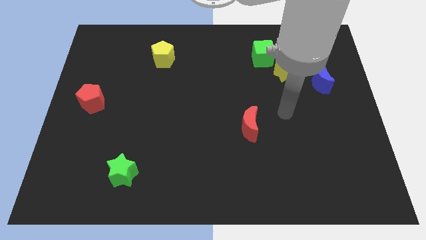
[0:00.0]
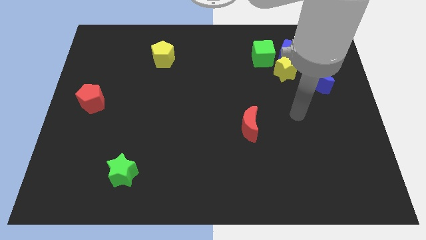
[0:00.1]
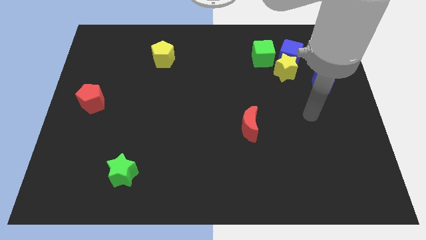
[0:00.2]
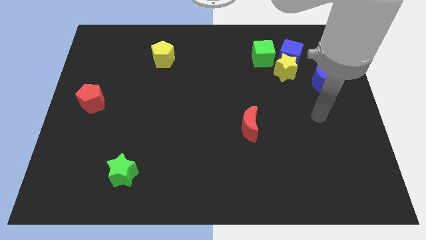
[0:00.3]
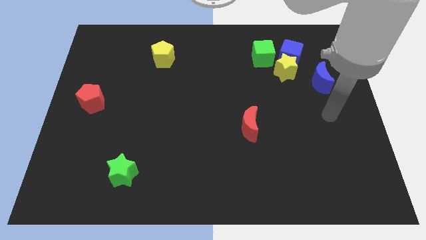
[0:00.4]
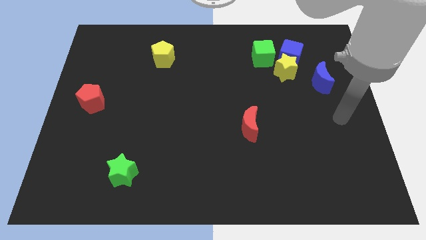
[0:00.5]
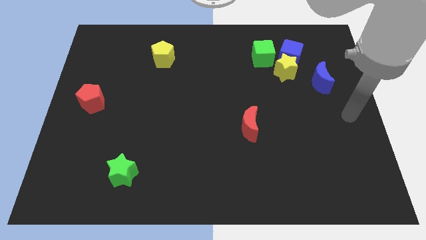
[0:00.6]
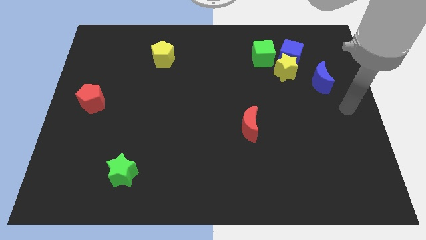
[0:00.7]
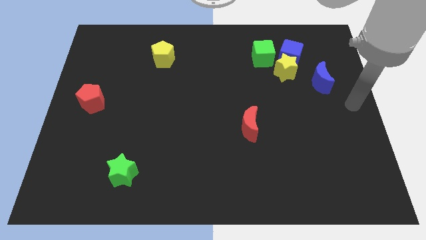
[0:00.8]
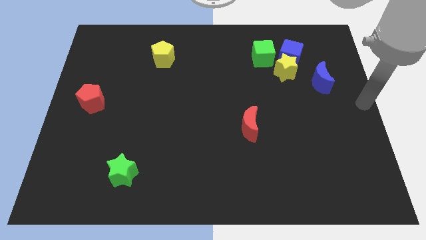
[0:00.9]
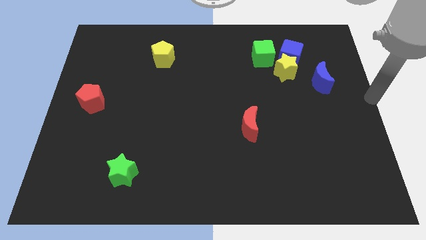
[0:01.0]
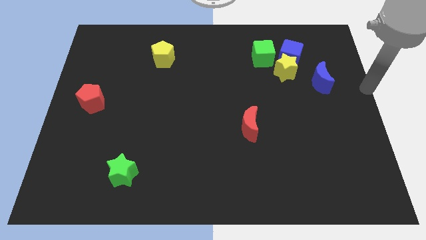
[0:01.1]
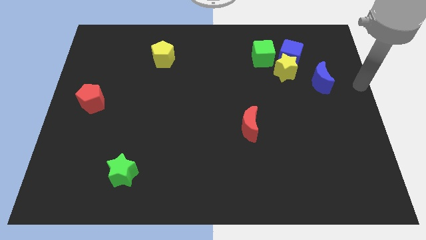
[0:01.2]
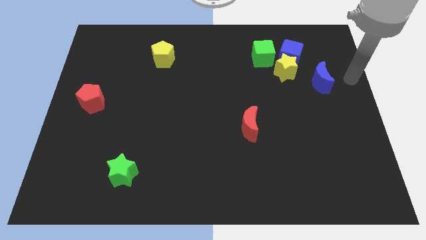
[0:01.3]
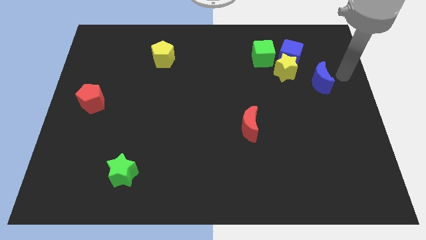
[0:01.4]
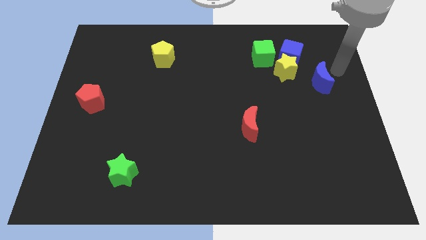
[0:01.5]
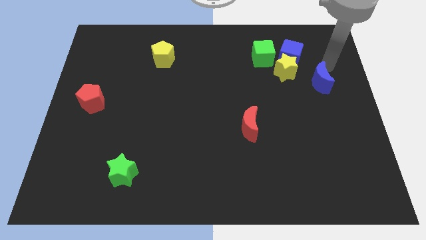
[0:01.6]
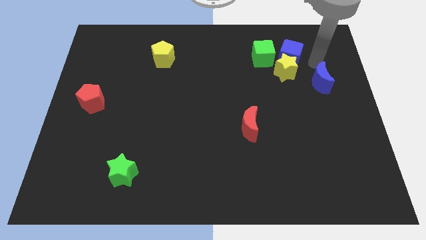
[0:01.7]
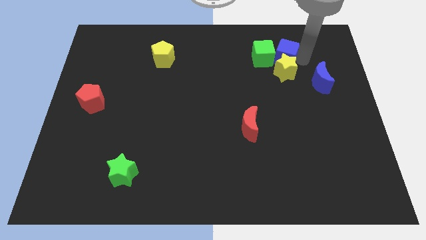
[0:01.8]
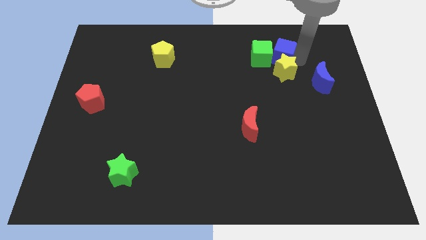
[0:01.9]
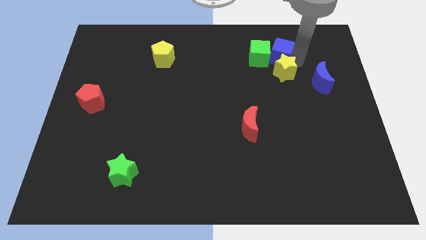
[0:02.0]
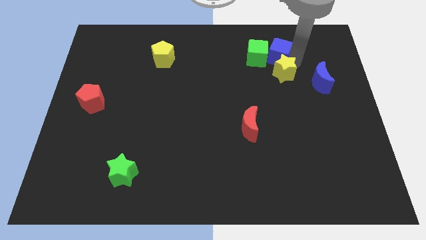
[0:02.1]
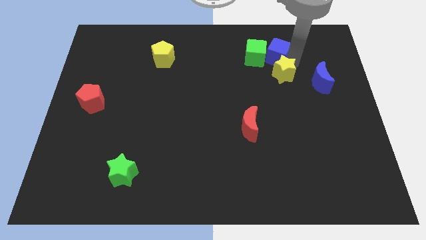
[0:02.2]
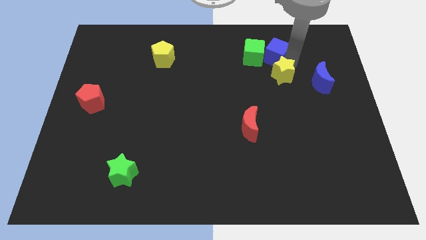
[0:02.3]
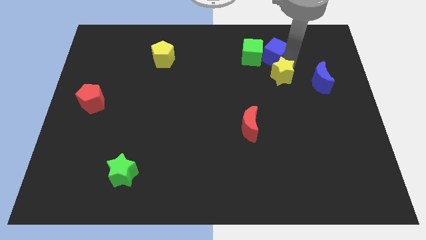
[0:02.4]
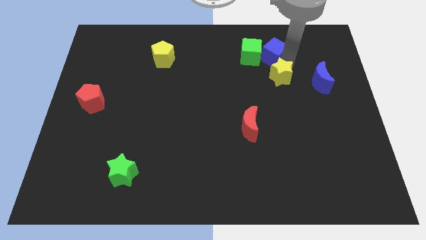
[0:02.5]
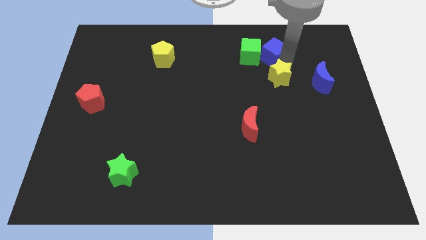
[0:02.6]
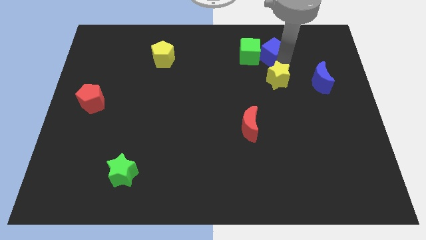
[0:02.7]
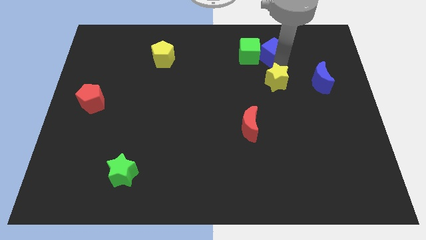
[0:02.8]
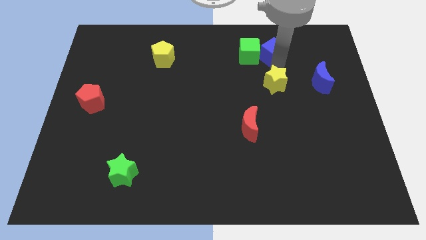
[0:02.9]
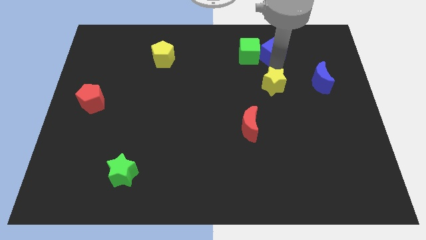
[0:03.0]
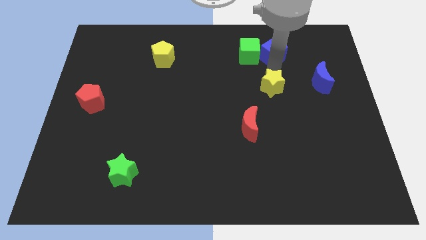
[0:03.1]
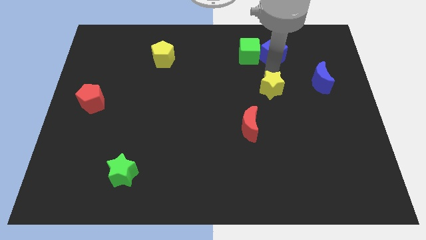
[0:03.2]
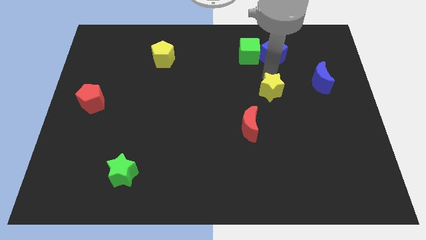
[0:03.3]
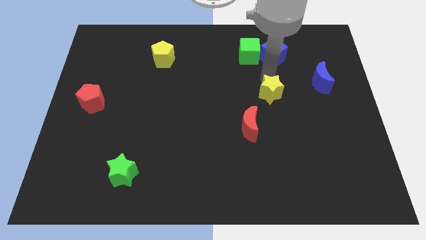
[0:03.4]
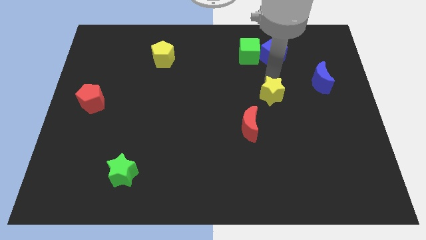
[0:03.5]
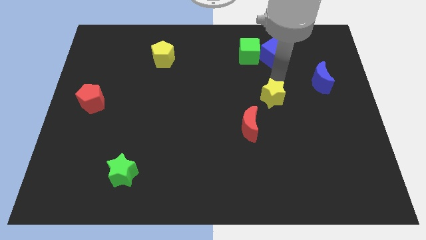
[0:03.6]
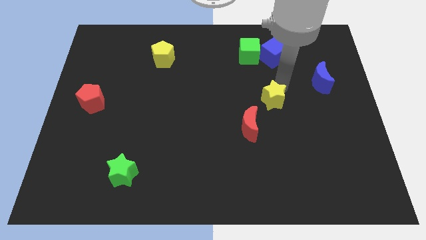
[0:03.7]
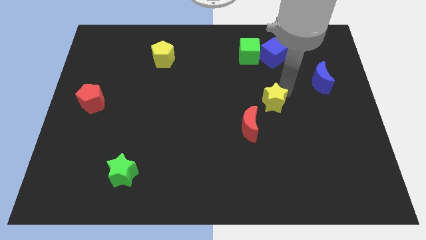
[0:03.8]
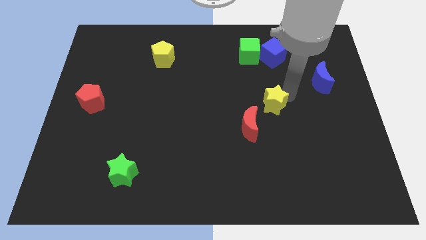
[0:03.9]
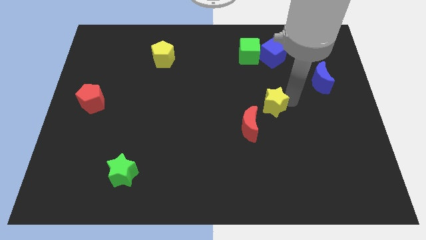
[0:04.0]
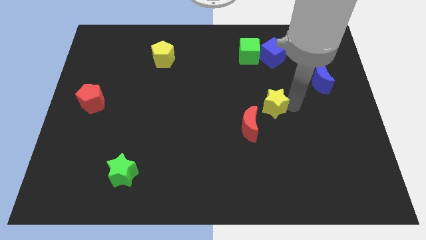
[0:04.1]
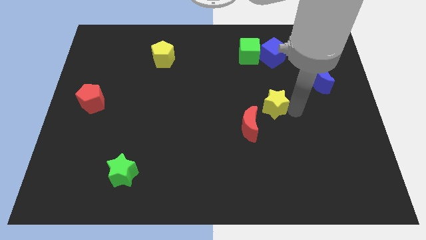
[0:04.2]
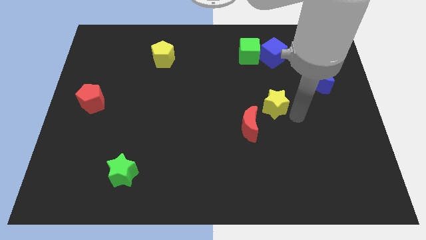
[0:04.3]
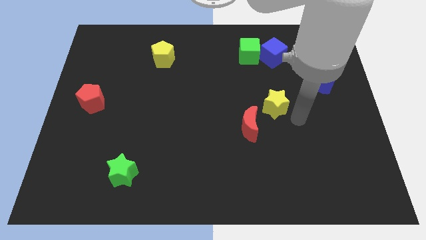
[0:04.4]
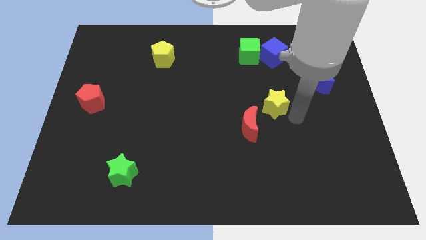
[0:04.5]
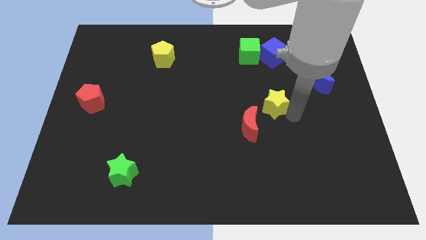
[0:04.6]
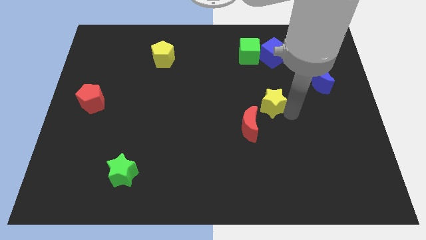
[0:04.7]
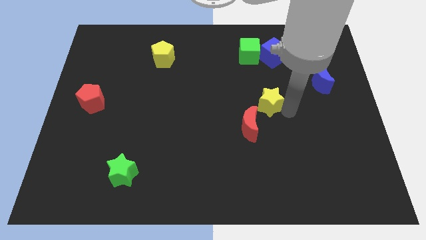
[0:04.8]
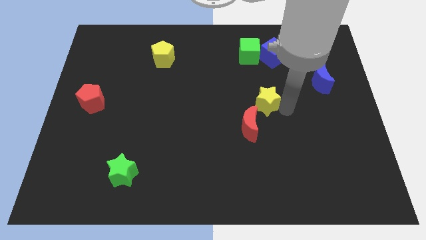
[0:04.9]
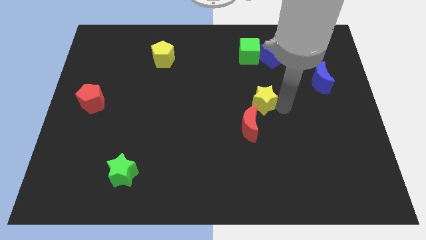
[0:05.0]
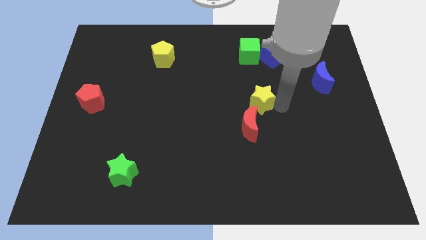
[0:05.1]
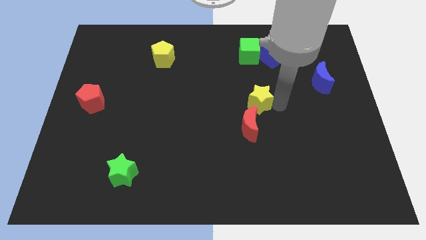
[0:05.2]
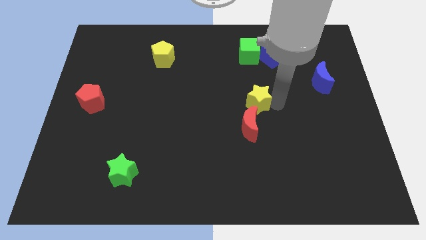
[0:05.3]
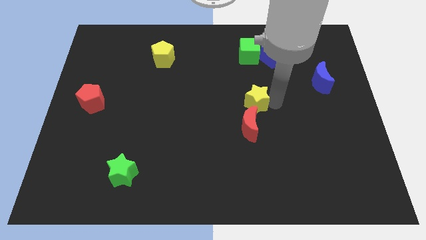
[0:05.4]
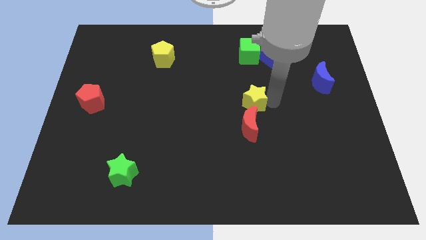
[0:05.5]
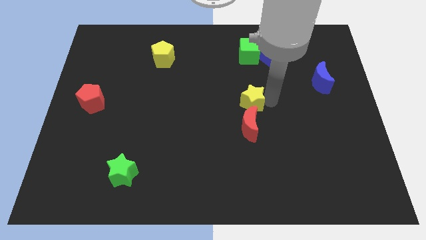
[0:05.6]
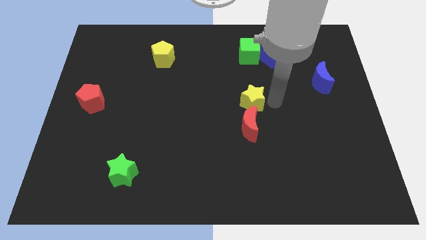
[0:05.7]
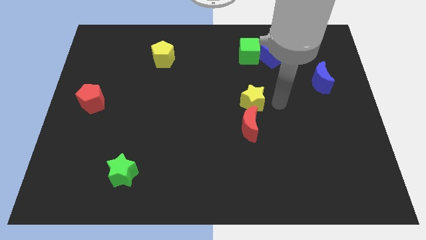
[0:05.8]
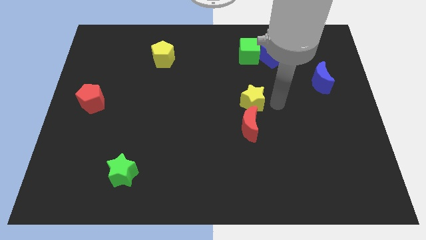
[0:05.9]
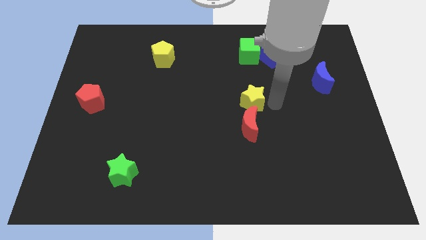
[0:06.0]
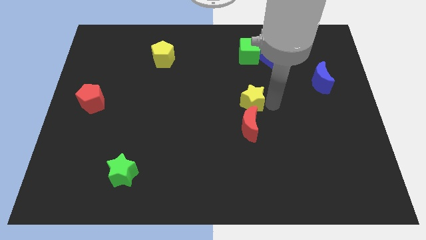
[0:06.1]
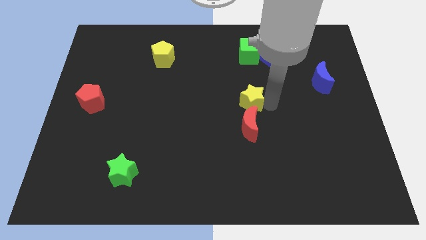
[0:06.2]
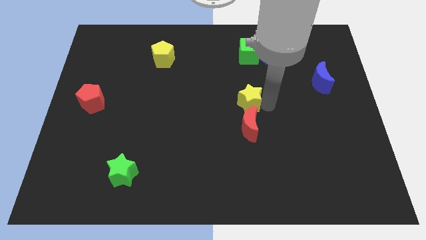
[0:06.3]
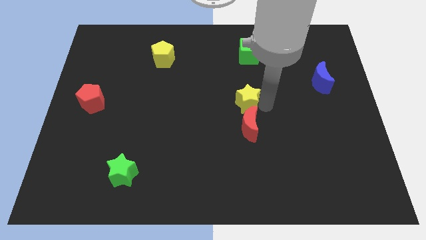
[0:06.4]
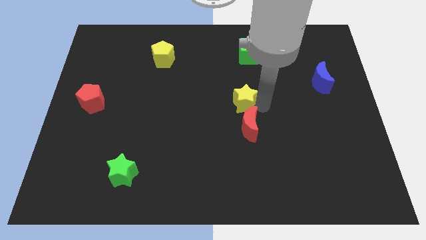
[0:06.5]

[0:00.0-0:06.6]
slide the yellow star to the top left side of the red moon

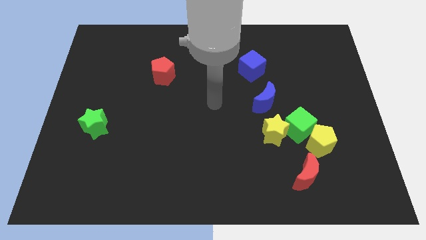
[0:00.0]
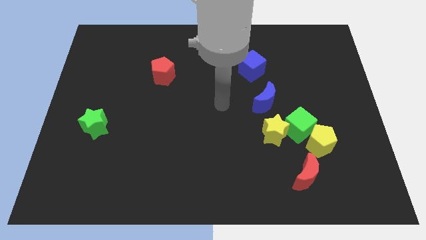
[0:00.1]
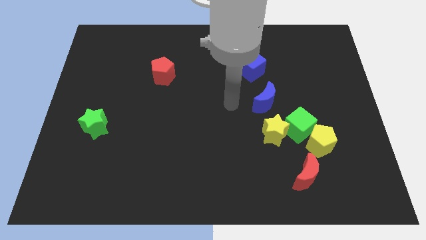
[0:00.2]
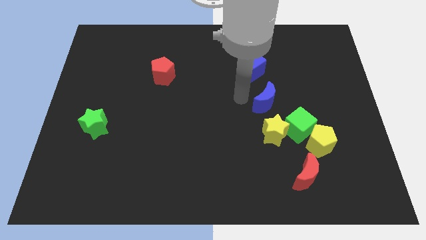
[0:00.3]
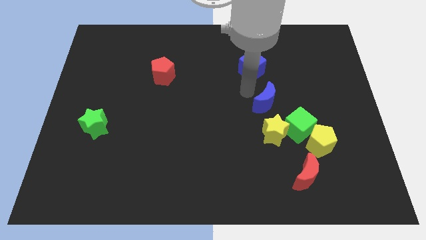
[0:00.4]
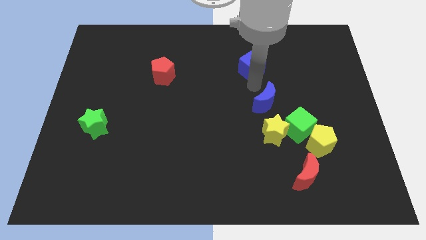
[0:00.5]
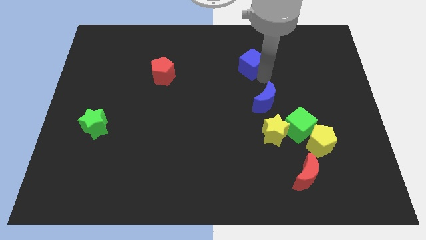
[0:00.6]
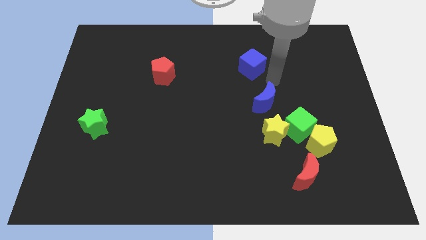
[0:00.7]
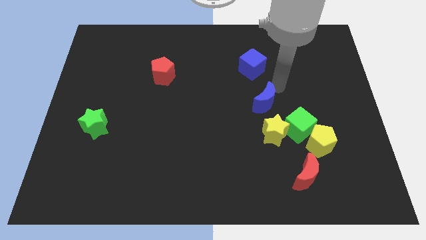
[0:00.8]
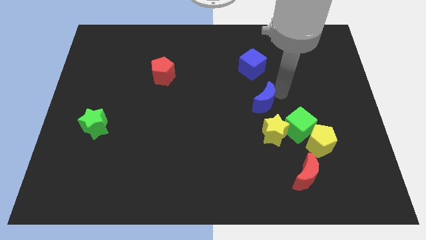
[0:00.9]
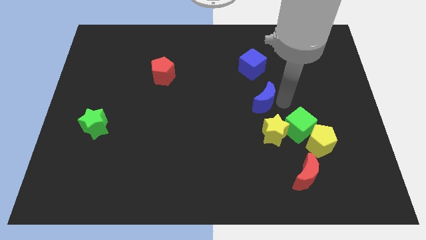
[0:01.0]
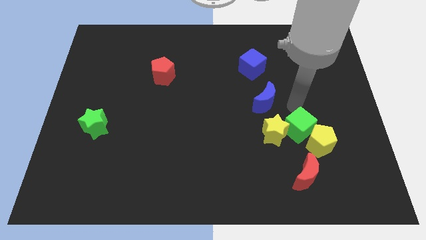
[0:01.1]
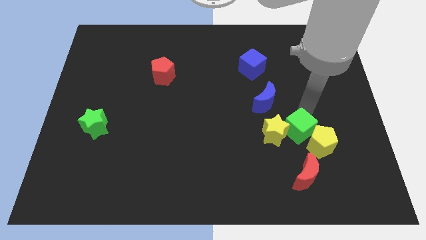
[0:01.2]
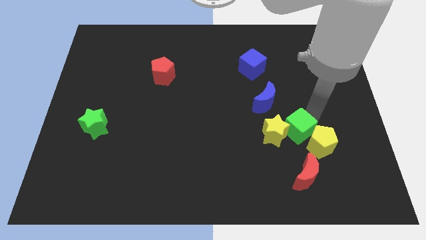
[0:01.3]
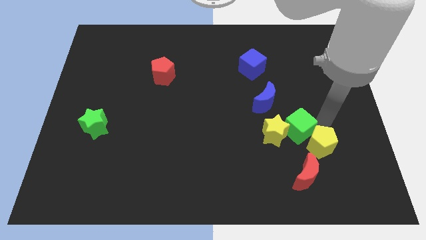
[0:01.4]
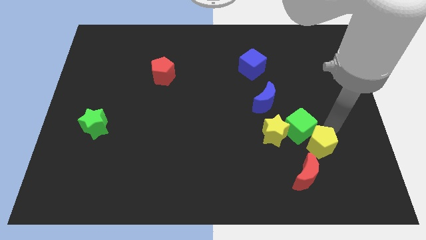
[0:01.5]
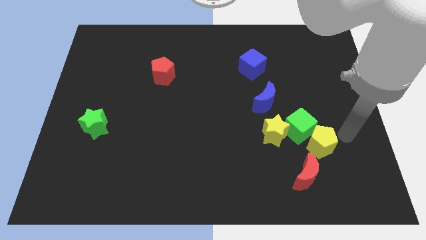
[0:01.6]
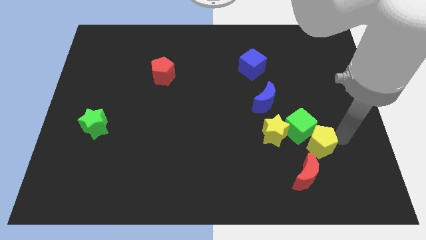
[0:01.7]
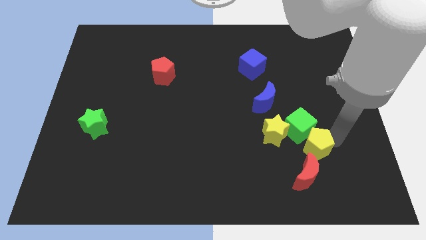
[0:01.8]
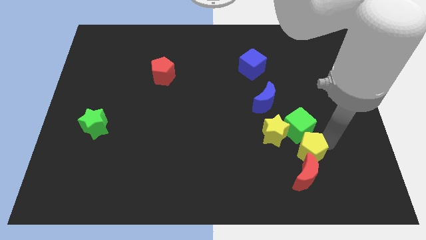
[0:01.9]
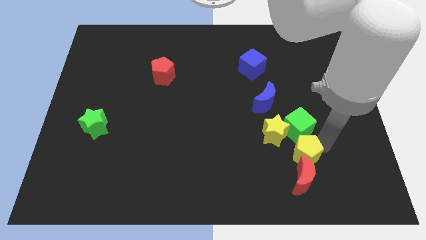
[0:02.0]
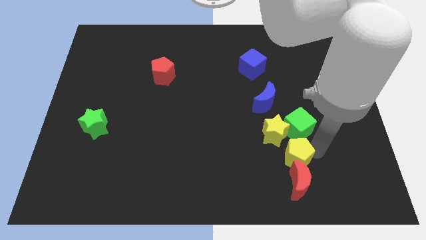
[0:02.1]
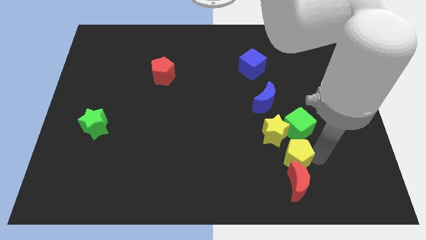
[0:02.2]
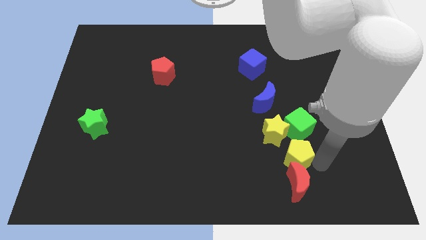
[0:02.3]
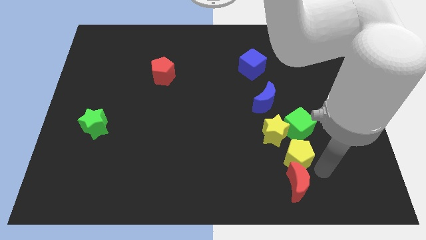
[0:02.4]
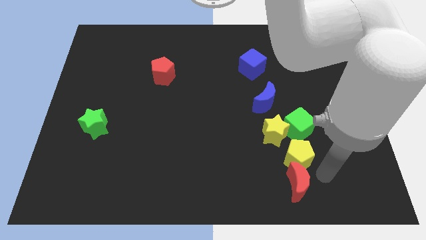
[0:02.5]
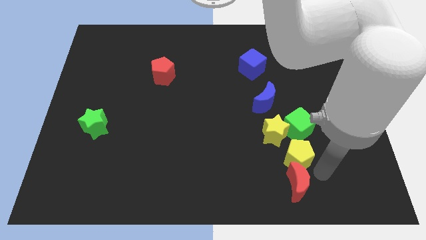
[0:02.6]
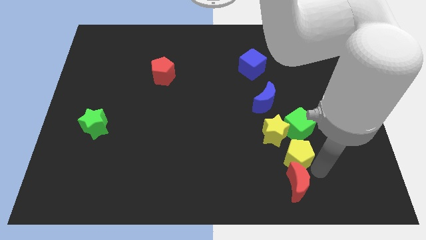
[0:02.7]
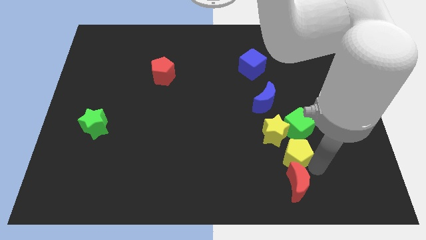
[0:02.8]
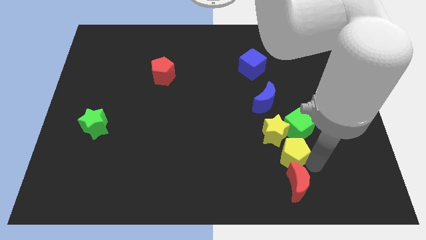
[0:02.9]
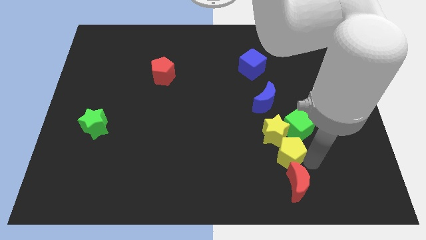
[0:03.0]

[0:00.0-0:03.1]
move the yellow pentagon below the blue moon
